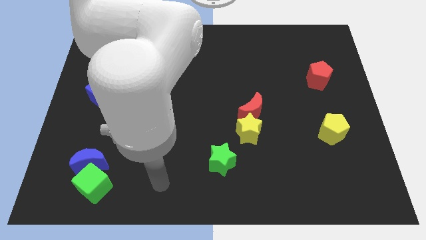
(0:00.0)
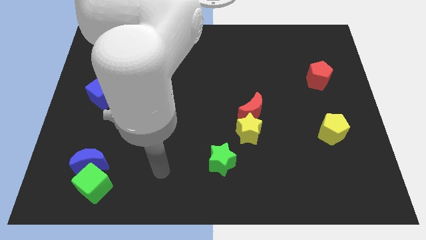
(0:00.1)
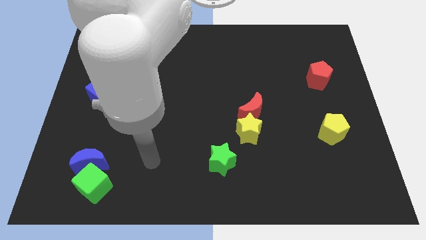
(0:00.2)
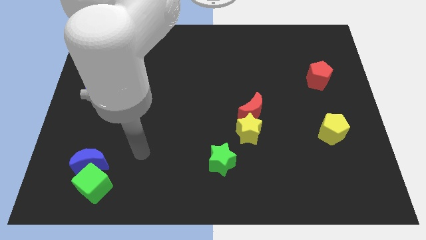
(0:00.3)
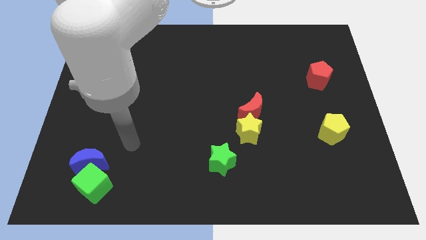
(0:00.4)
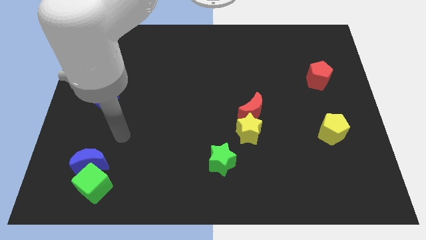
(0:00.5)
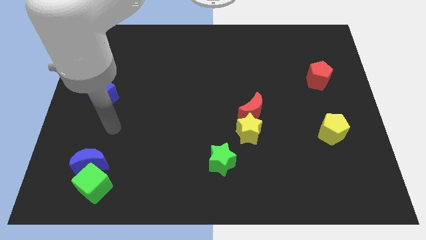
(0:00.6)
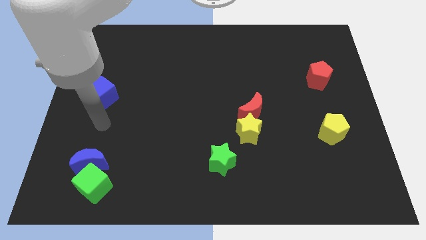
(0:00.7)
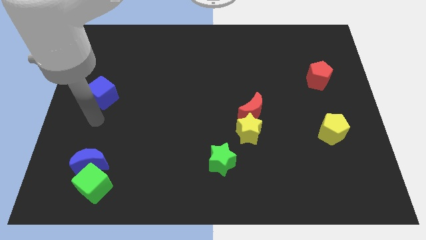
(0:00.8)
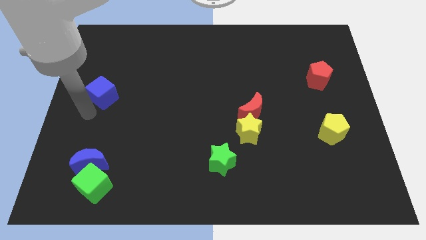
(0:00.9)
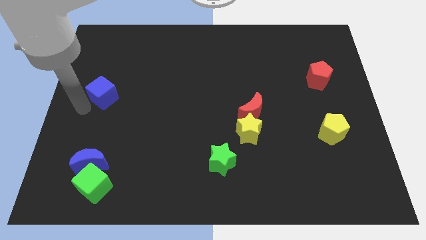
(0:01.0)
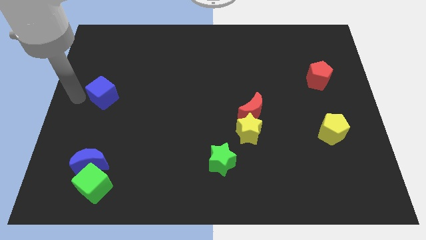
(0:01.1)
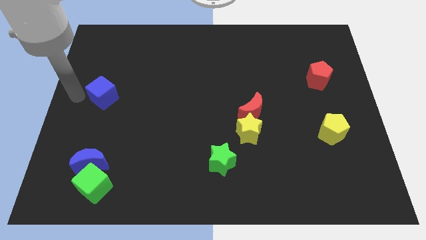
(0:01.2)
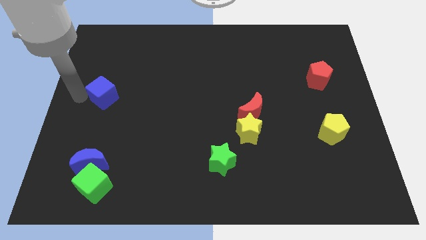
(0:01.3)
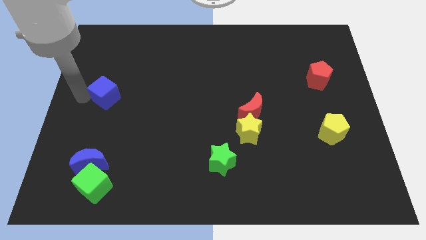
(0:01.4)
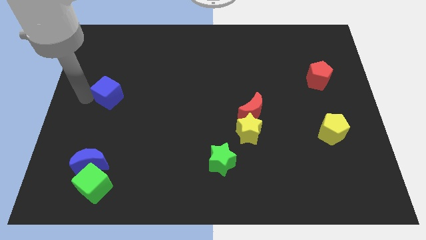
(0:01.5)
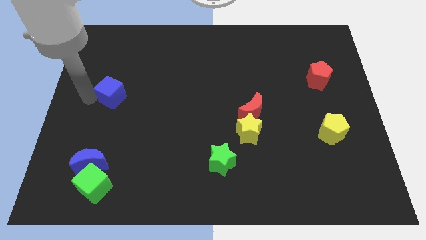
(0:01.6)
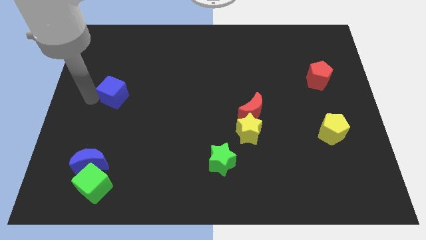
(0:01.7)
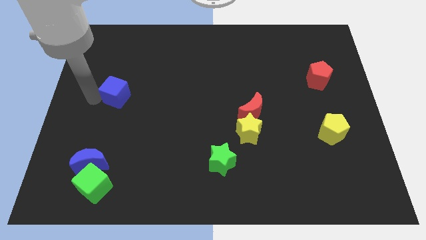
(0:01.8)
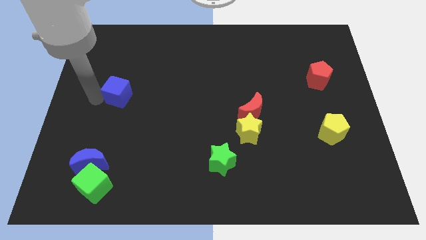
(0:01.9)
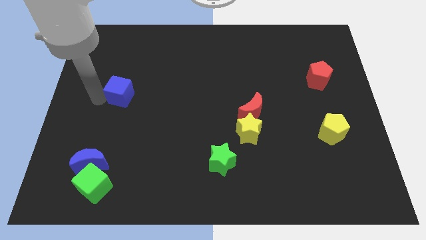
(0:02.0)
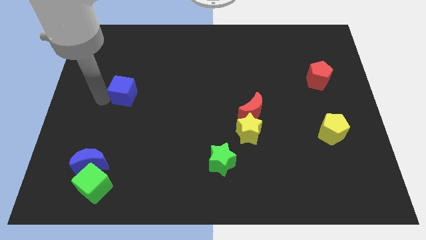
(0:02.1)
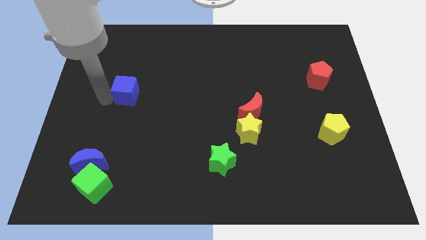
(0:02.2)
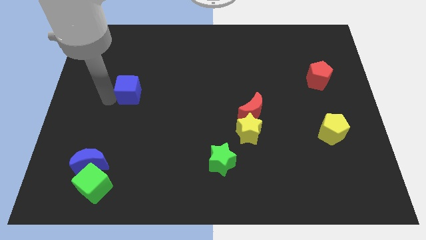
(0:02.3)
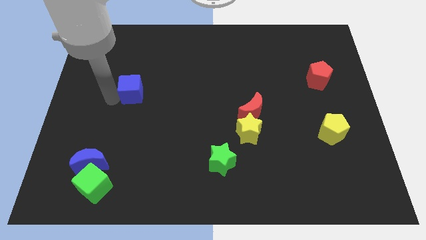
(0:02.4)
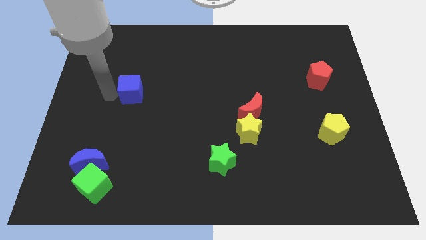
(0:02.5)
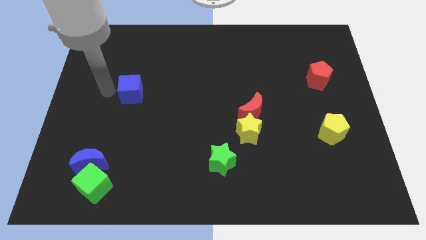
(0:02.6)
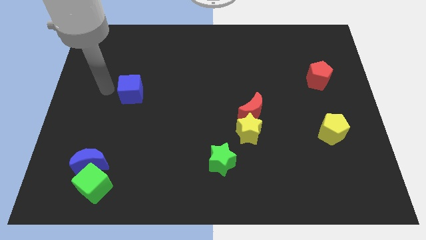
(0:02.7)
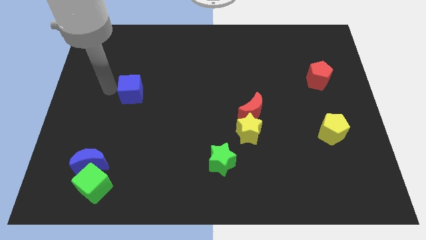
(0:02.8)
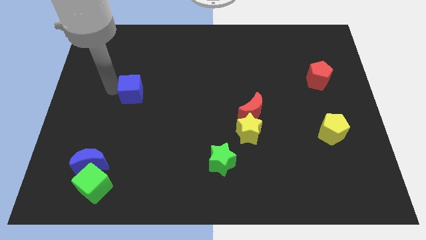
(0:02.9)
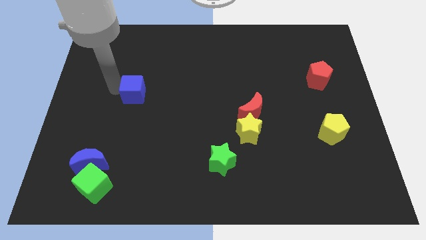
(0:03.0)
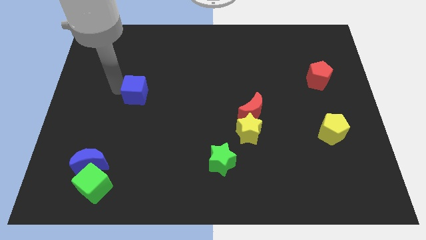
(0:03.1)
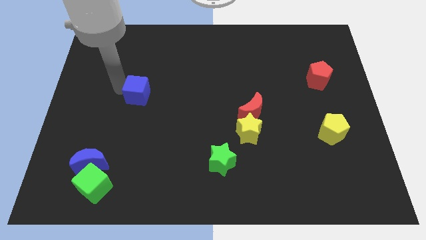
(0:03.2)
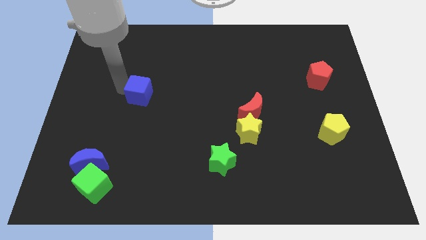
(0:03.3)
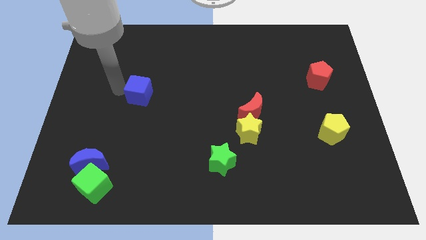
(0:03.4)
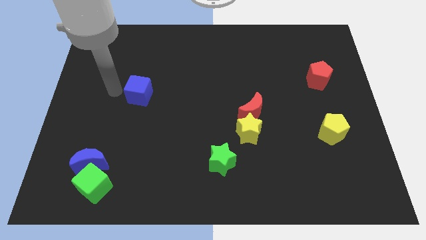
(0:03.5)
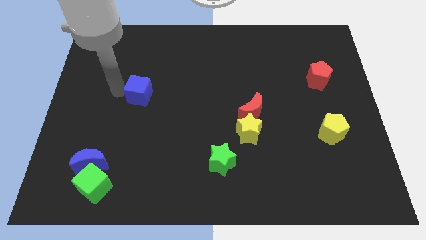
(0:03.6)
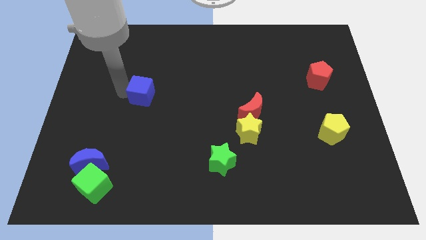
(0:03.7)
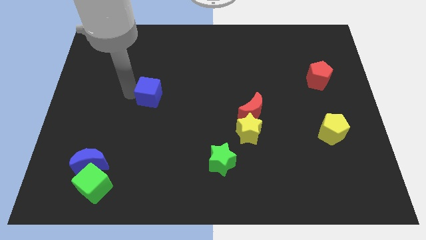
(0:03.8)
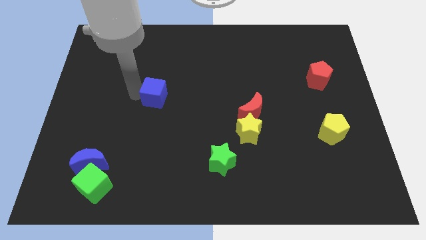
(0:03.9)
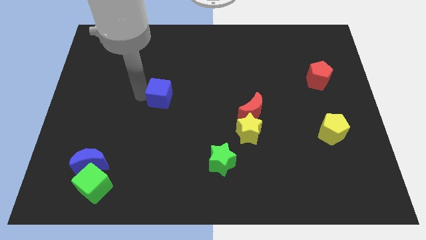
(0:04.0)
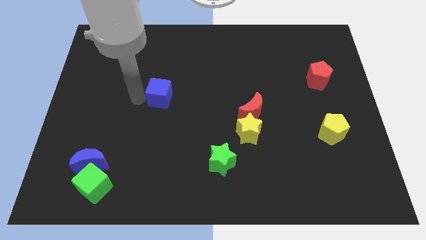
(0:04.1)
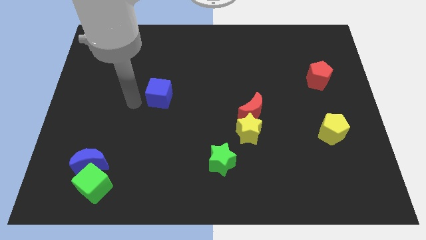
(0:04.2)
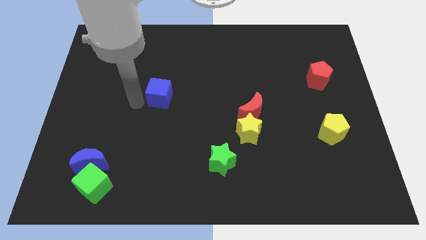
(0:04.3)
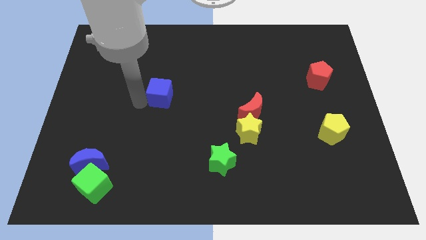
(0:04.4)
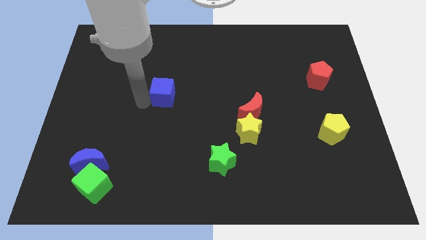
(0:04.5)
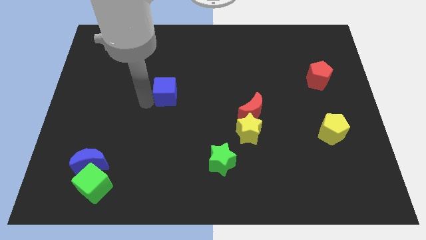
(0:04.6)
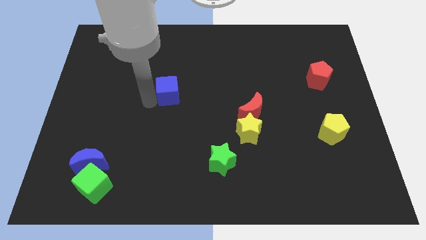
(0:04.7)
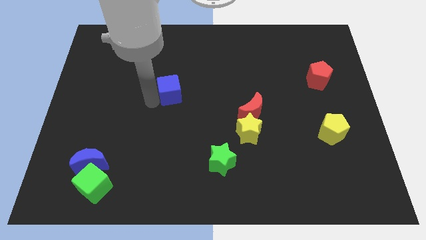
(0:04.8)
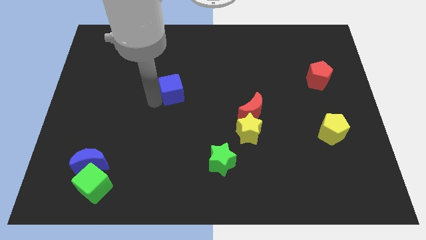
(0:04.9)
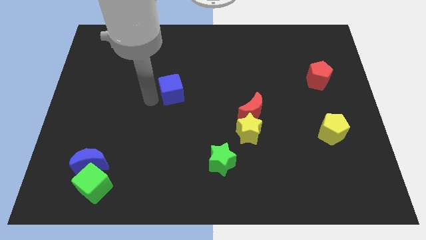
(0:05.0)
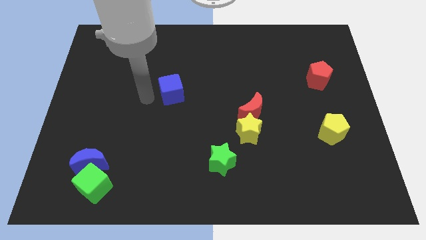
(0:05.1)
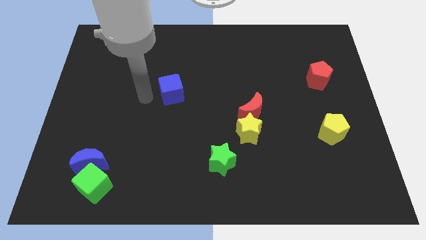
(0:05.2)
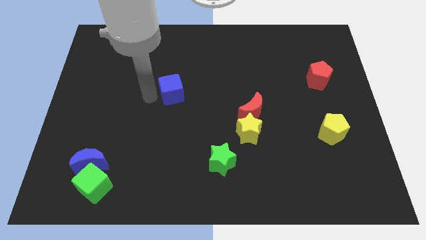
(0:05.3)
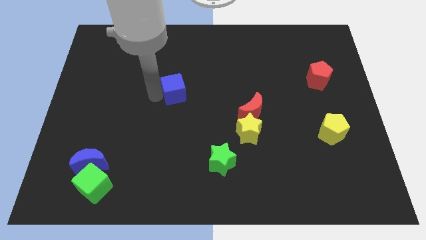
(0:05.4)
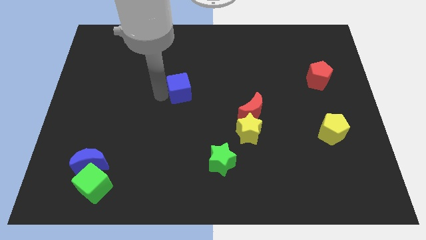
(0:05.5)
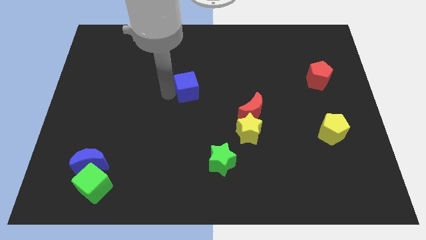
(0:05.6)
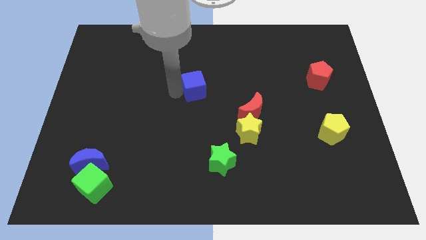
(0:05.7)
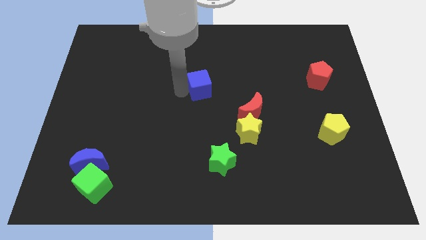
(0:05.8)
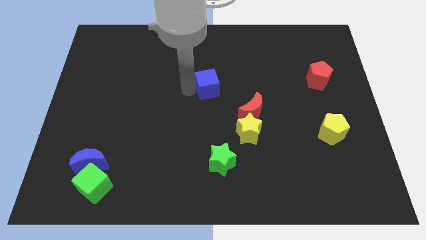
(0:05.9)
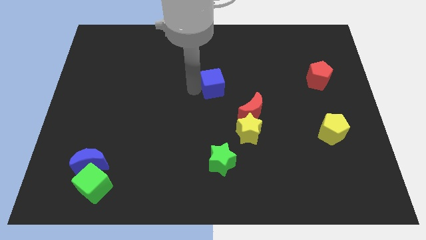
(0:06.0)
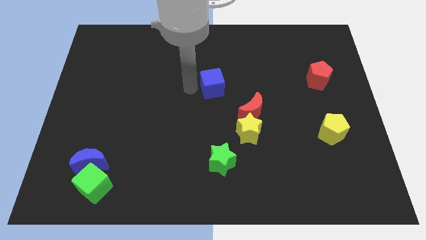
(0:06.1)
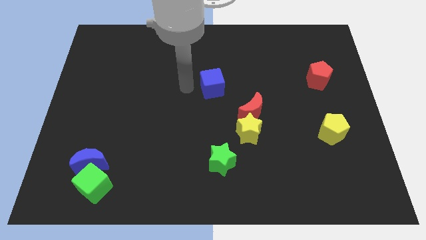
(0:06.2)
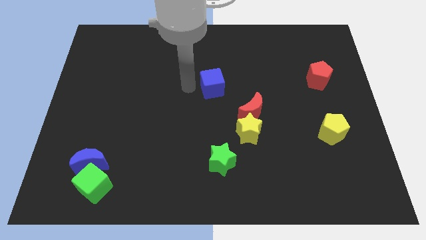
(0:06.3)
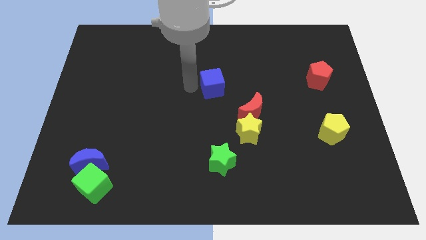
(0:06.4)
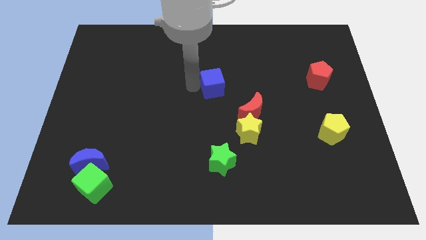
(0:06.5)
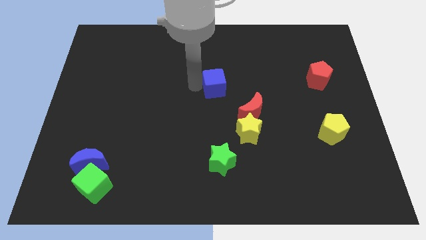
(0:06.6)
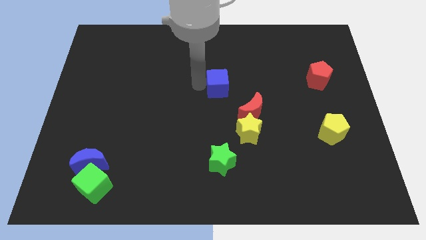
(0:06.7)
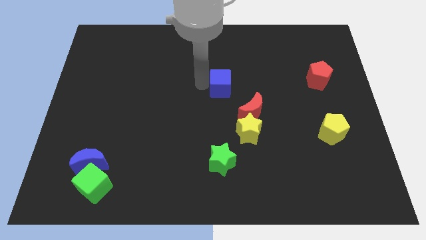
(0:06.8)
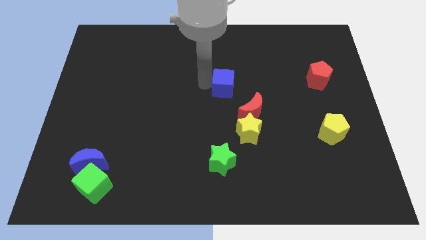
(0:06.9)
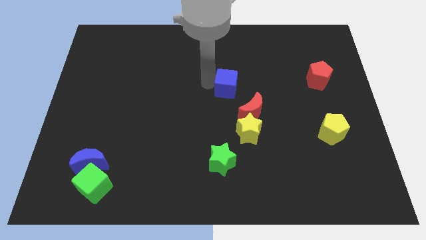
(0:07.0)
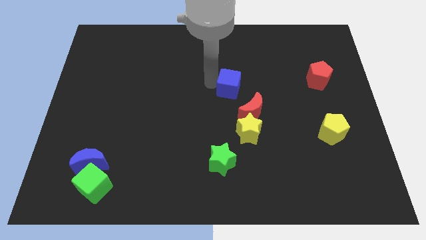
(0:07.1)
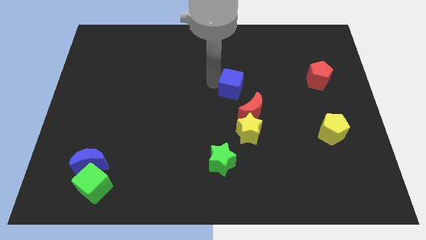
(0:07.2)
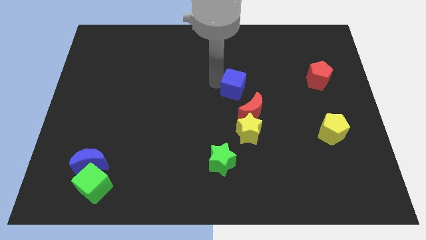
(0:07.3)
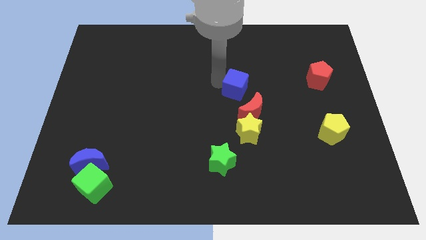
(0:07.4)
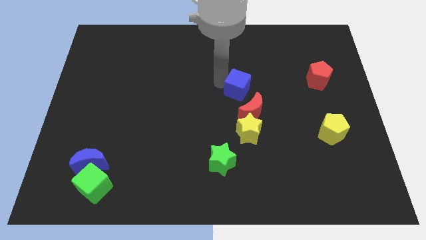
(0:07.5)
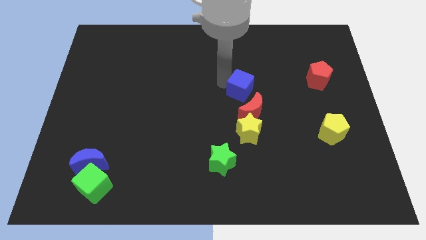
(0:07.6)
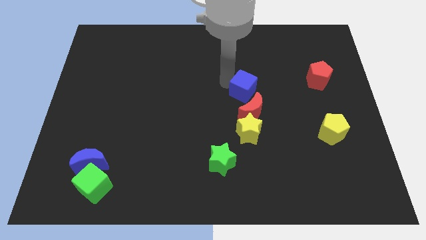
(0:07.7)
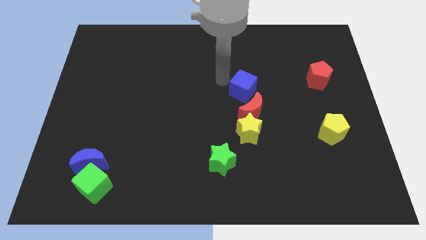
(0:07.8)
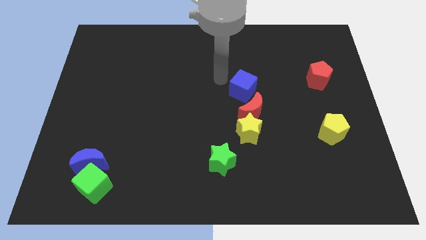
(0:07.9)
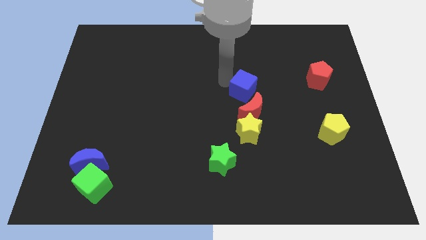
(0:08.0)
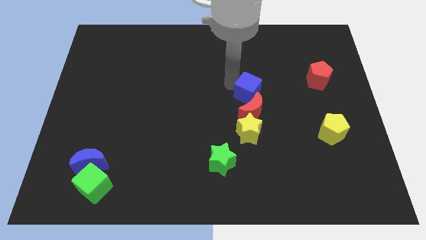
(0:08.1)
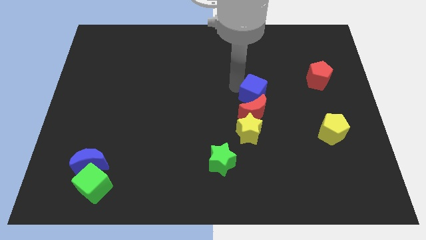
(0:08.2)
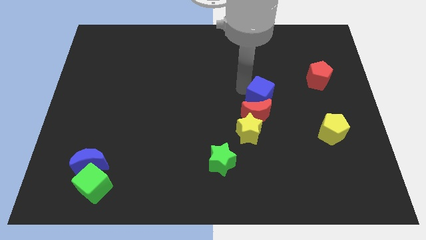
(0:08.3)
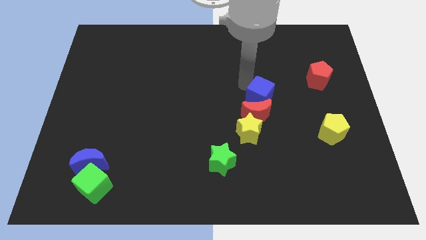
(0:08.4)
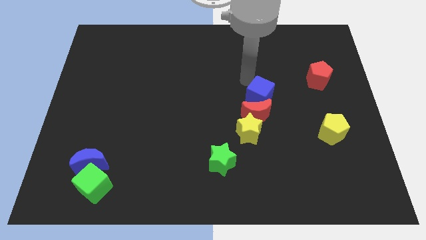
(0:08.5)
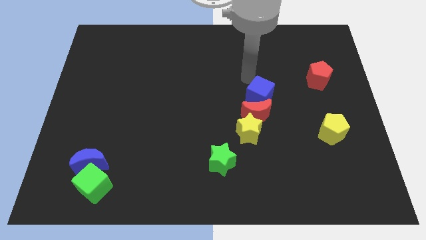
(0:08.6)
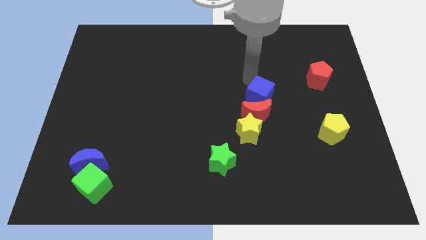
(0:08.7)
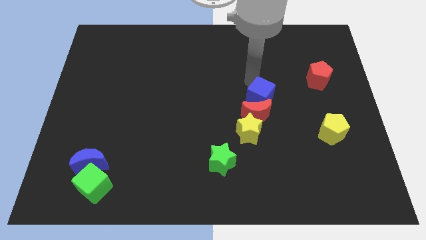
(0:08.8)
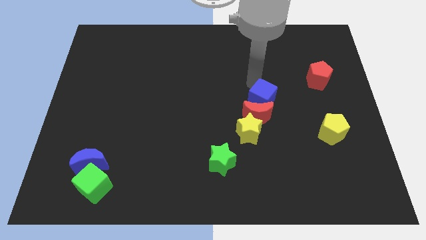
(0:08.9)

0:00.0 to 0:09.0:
move the blue cube to the top right side of the yellow star
